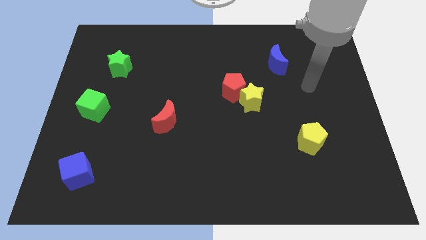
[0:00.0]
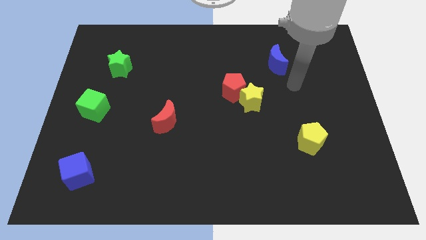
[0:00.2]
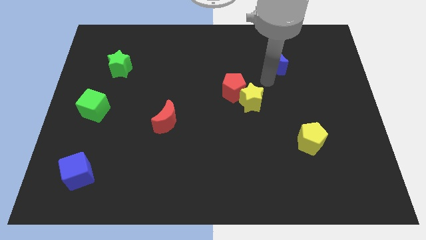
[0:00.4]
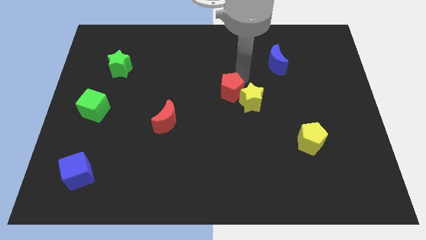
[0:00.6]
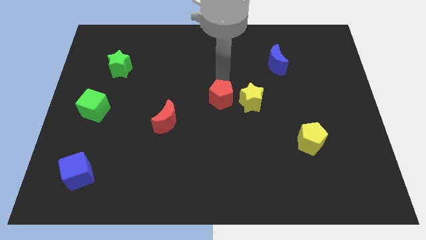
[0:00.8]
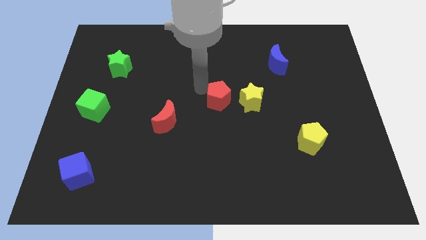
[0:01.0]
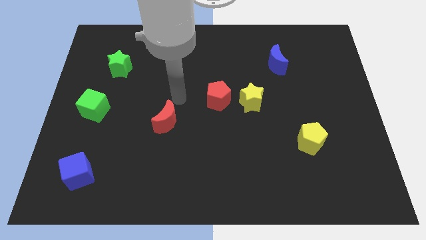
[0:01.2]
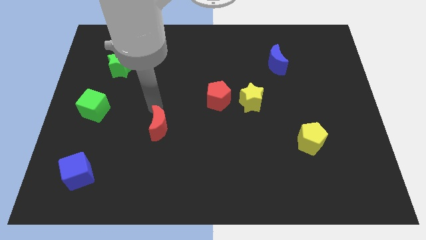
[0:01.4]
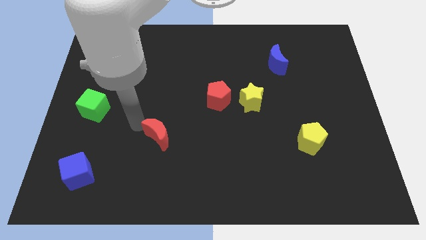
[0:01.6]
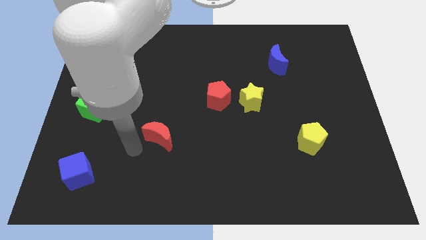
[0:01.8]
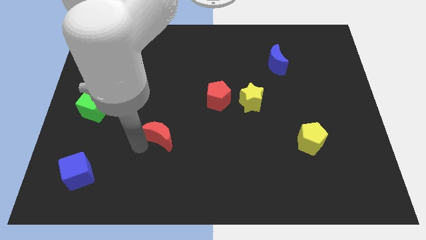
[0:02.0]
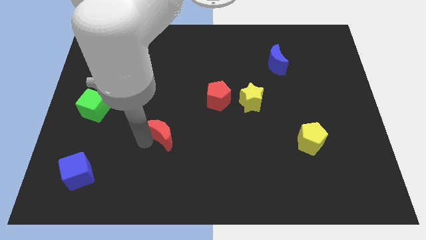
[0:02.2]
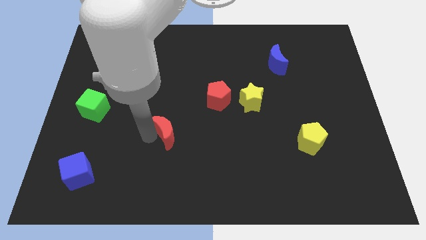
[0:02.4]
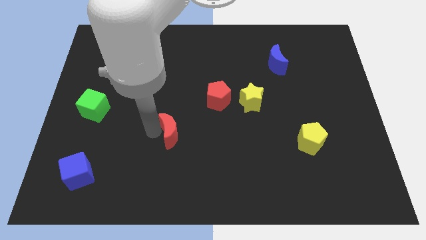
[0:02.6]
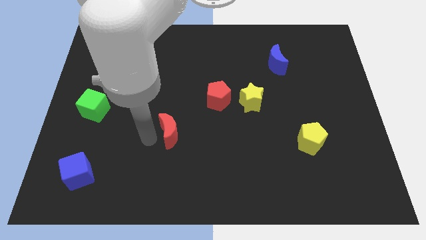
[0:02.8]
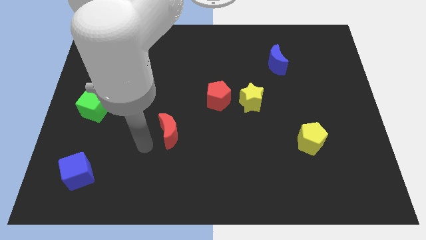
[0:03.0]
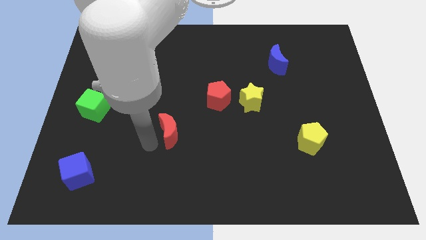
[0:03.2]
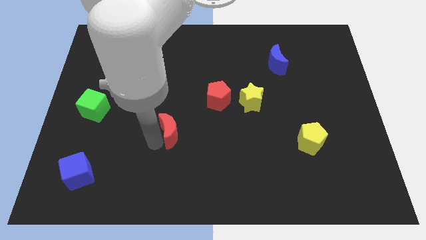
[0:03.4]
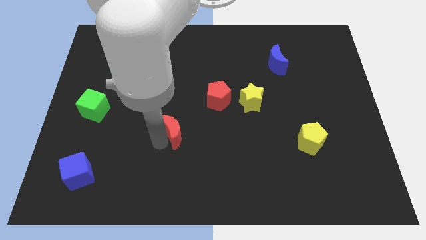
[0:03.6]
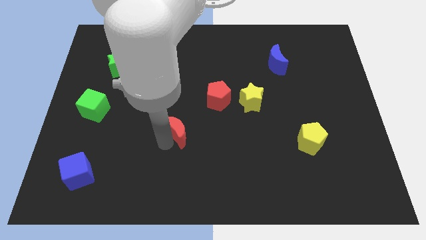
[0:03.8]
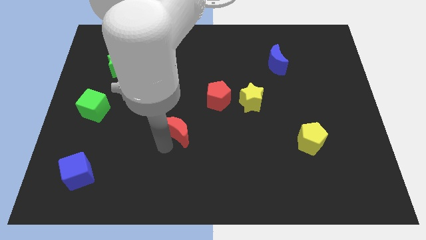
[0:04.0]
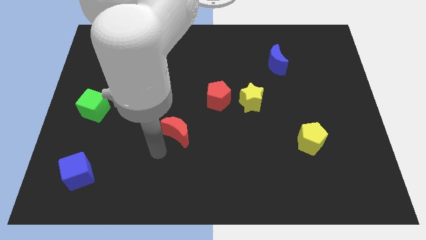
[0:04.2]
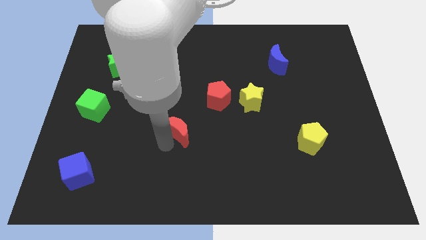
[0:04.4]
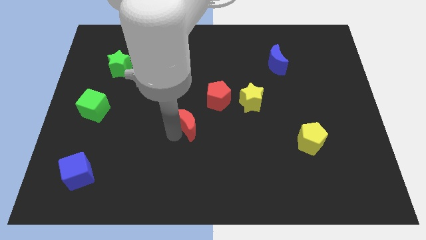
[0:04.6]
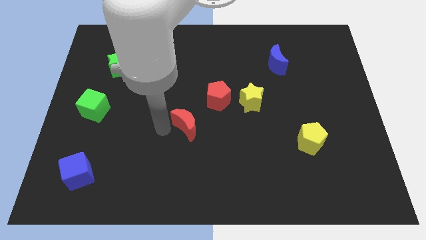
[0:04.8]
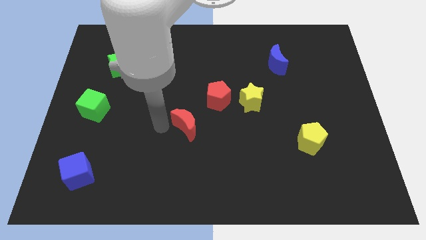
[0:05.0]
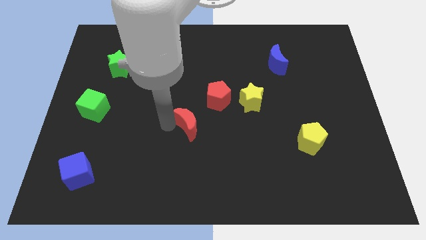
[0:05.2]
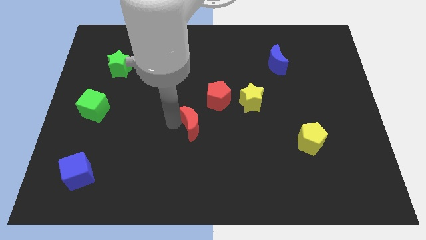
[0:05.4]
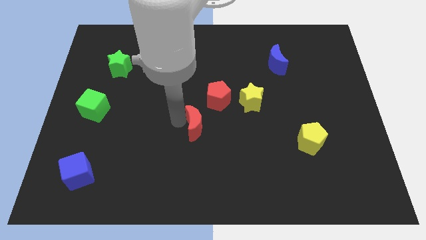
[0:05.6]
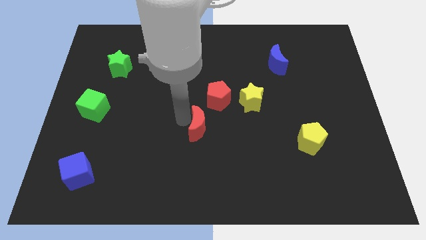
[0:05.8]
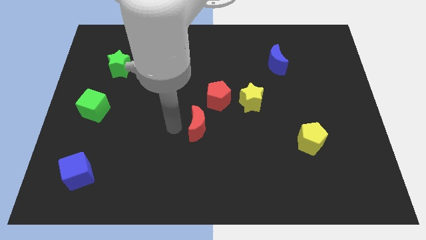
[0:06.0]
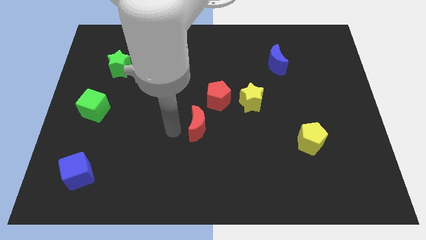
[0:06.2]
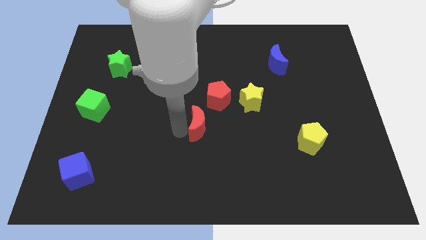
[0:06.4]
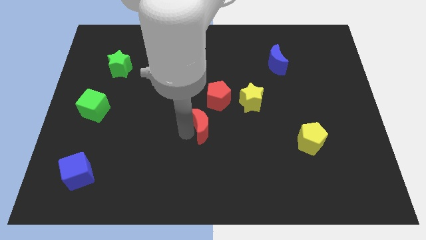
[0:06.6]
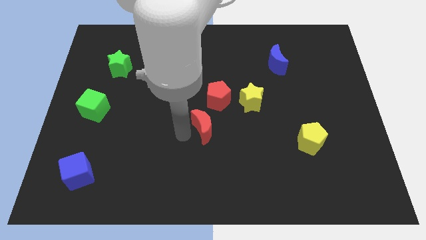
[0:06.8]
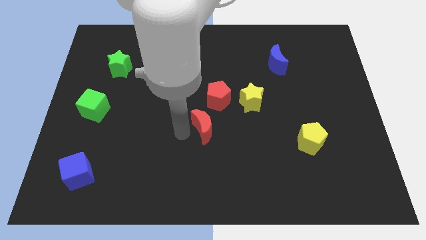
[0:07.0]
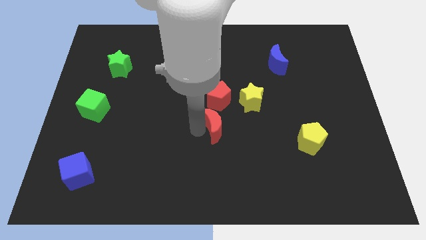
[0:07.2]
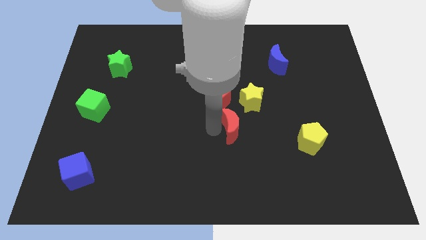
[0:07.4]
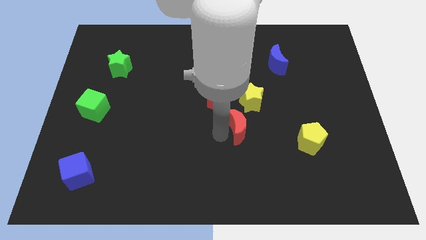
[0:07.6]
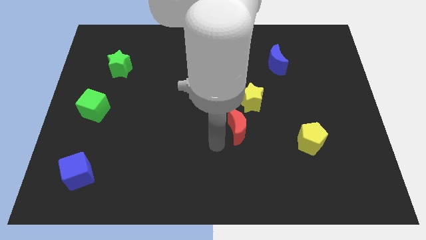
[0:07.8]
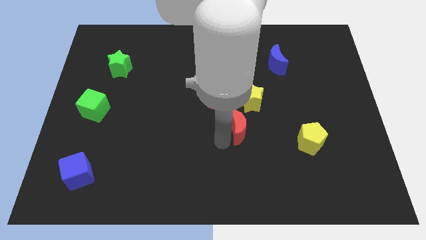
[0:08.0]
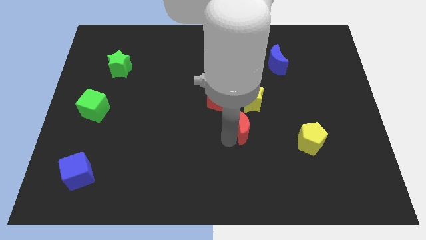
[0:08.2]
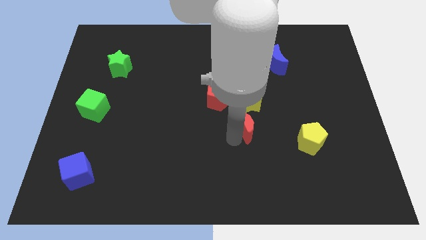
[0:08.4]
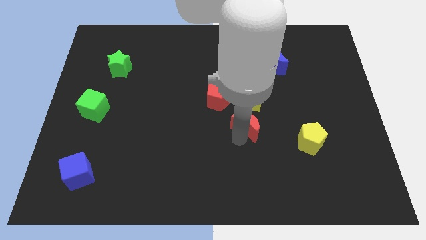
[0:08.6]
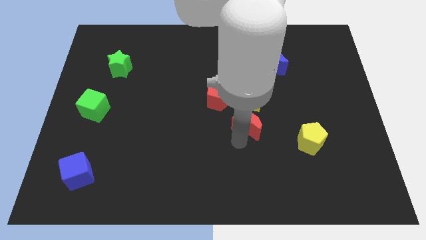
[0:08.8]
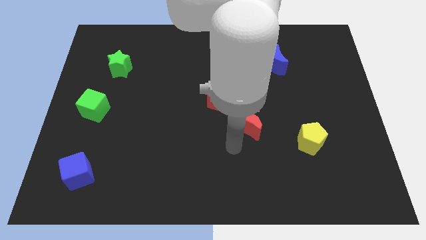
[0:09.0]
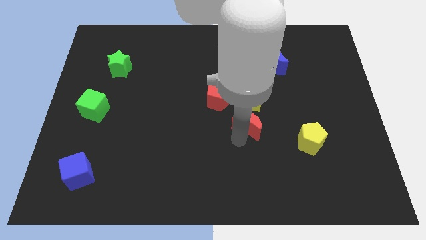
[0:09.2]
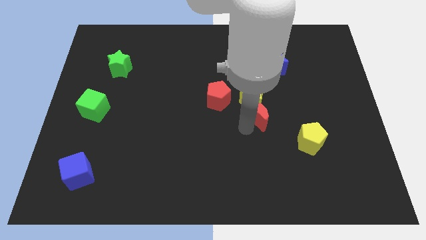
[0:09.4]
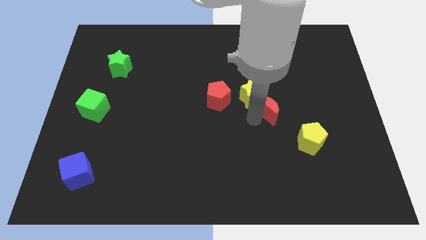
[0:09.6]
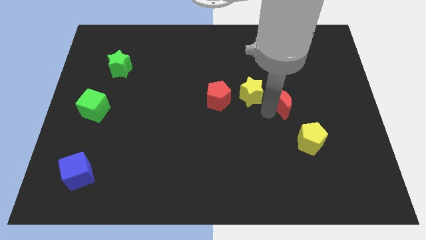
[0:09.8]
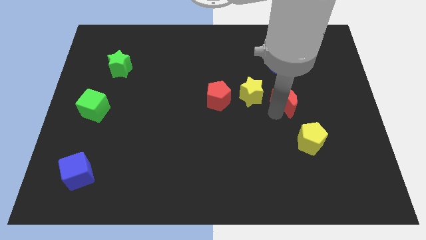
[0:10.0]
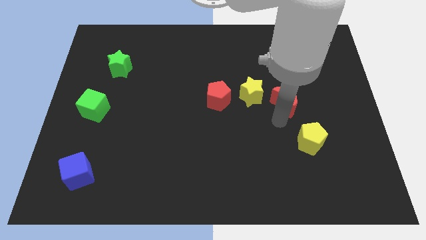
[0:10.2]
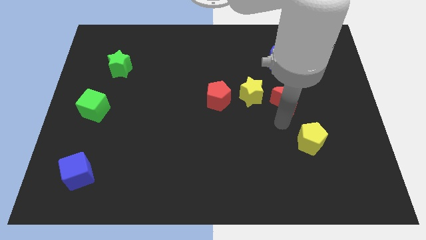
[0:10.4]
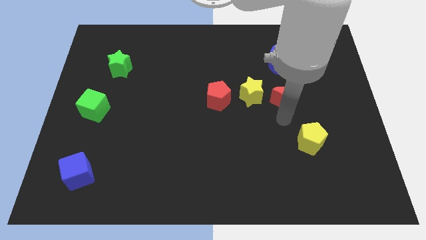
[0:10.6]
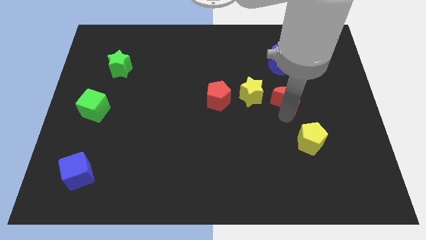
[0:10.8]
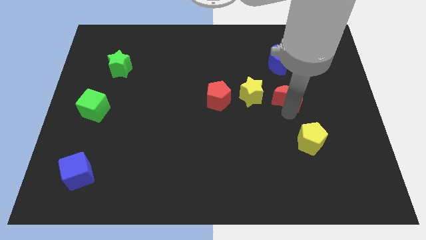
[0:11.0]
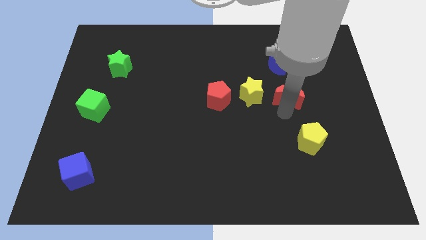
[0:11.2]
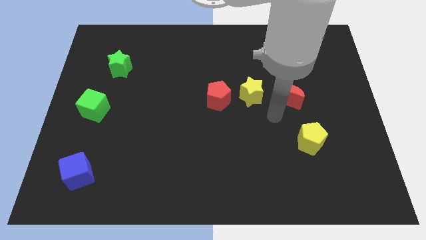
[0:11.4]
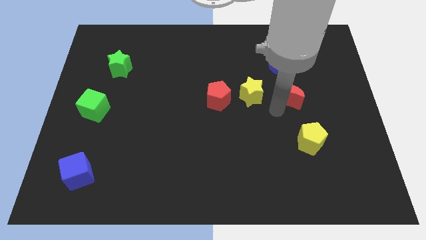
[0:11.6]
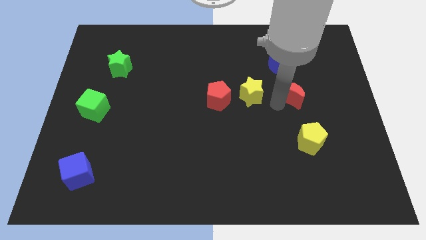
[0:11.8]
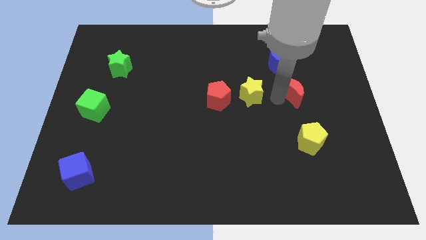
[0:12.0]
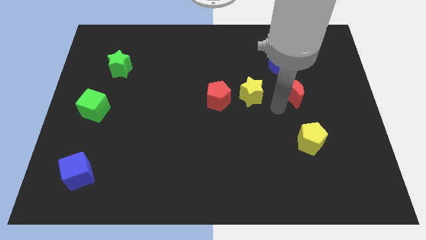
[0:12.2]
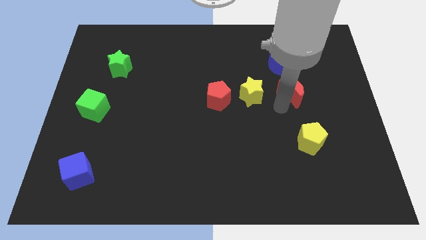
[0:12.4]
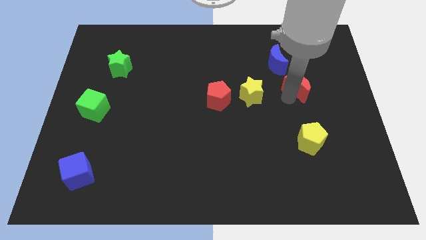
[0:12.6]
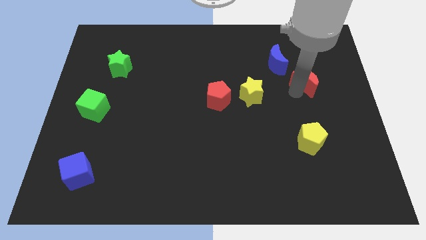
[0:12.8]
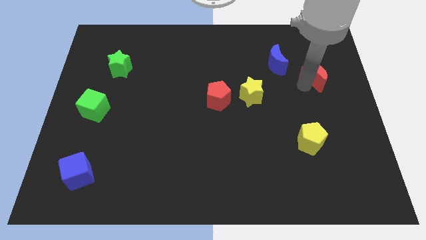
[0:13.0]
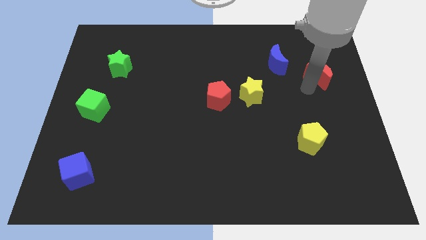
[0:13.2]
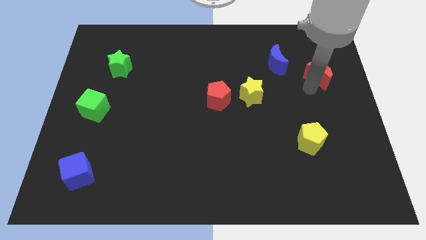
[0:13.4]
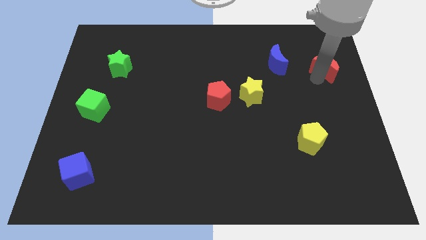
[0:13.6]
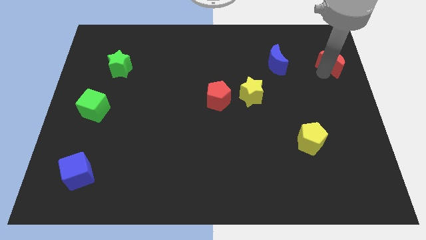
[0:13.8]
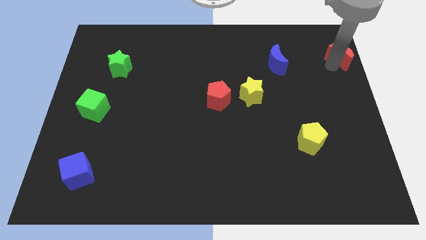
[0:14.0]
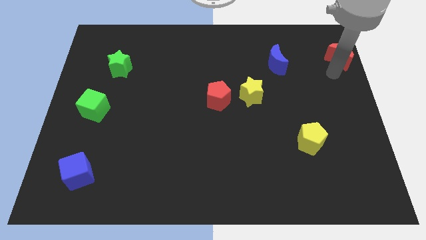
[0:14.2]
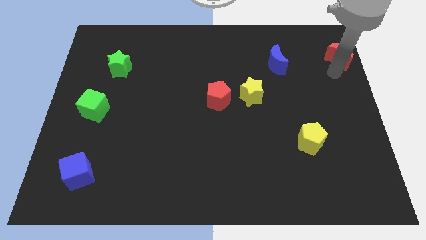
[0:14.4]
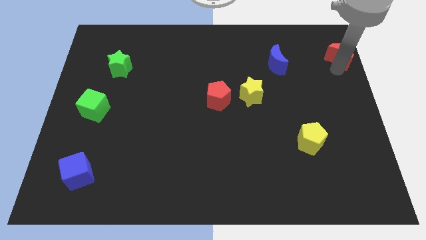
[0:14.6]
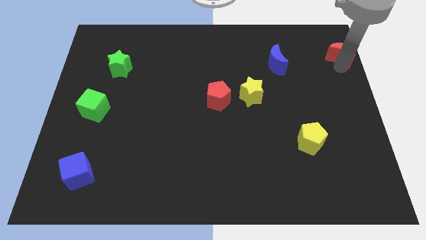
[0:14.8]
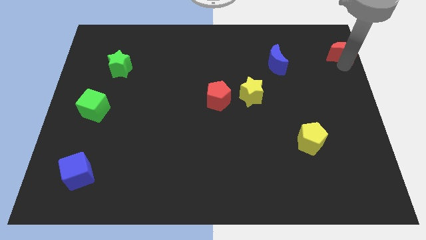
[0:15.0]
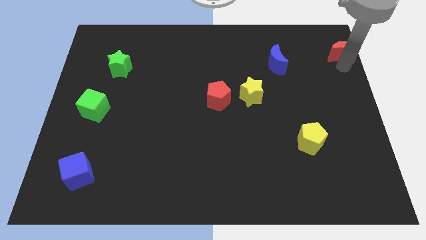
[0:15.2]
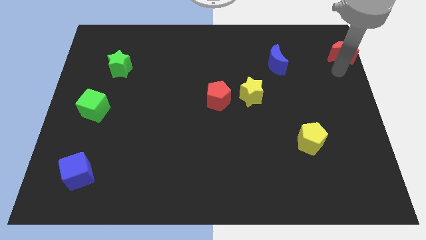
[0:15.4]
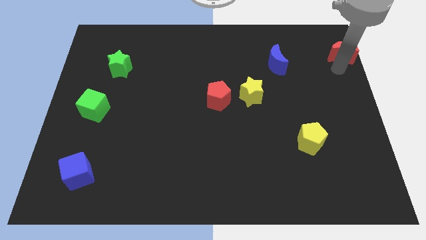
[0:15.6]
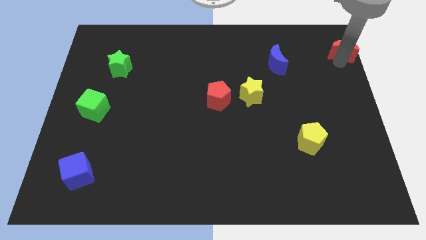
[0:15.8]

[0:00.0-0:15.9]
put the red moon to the upper right corner
